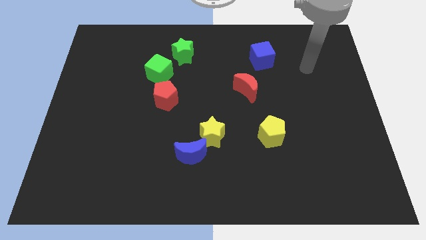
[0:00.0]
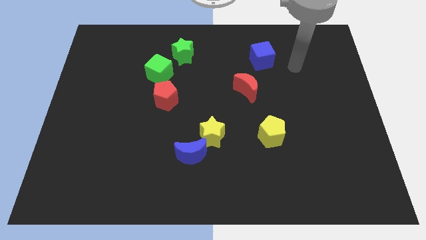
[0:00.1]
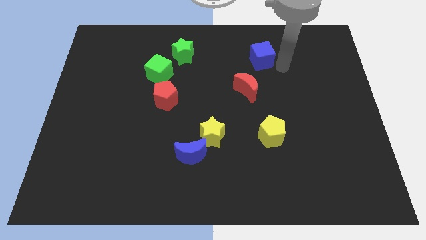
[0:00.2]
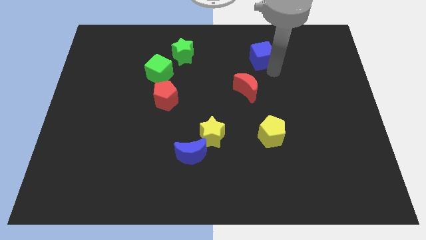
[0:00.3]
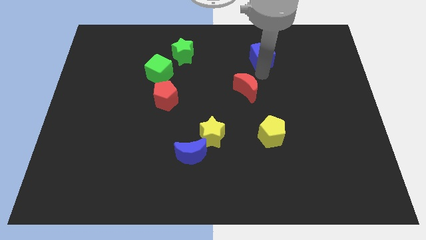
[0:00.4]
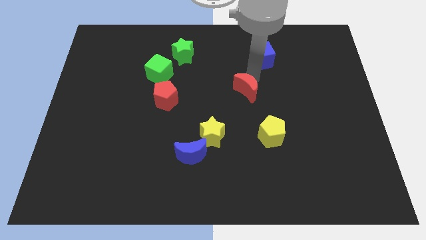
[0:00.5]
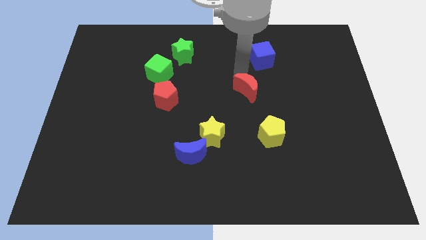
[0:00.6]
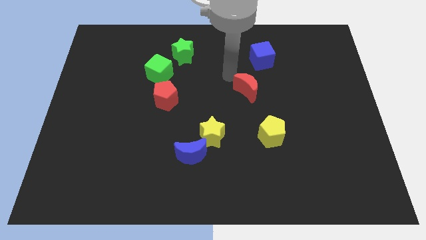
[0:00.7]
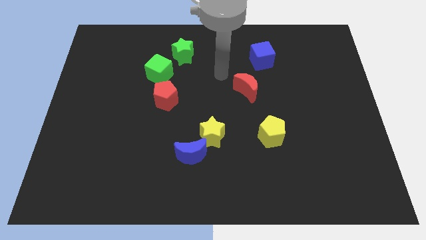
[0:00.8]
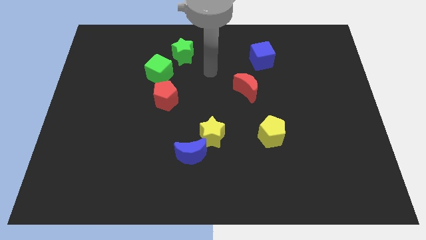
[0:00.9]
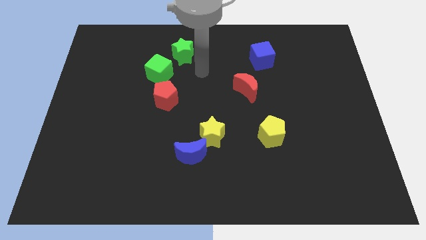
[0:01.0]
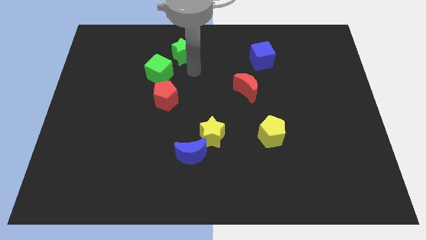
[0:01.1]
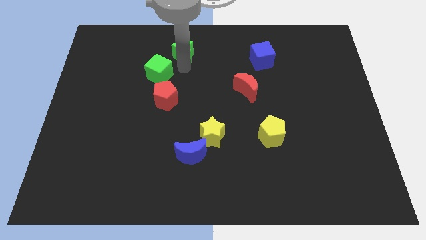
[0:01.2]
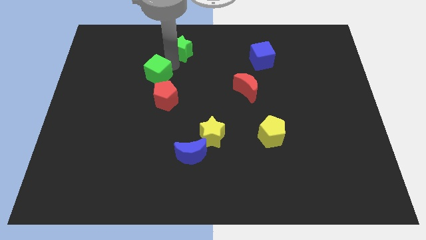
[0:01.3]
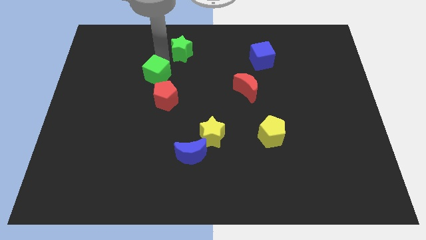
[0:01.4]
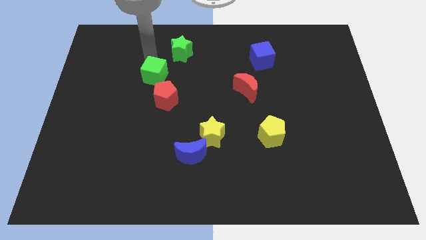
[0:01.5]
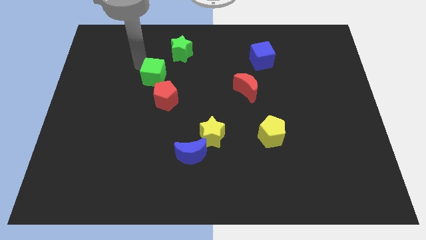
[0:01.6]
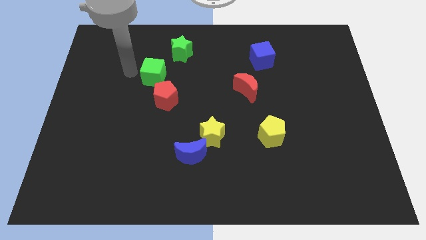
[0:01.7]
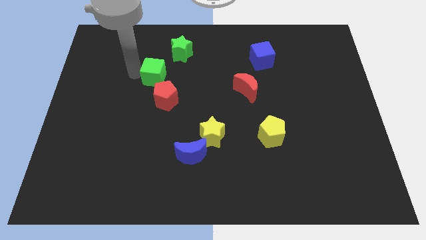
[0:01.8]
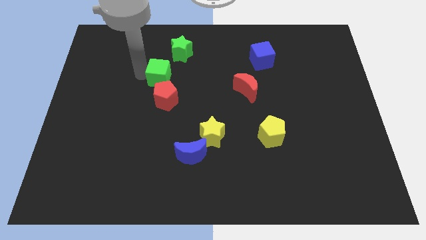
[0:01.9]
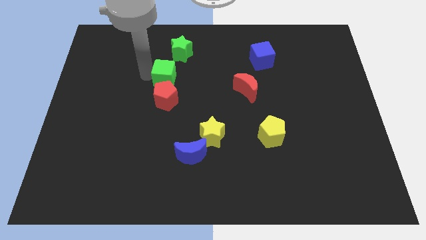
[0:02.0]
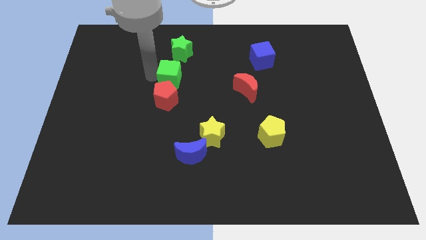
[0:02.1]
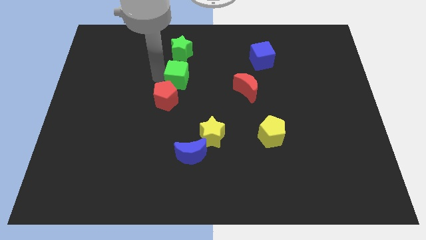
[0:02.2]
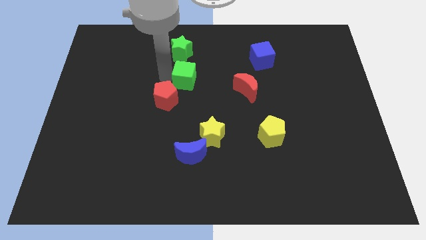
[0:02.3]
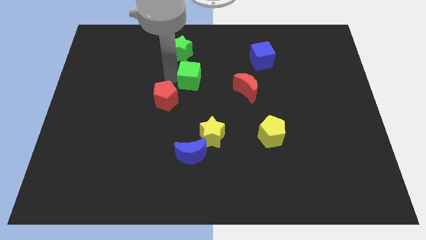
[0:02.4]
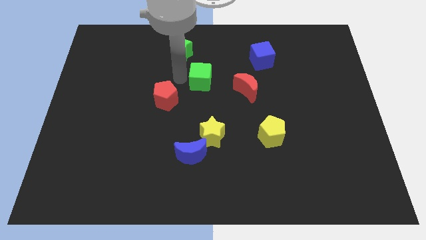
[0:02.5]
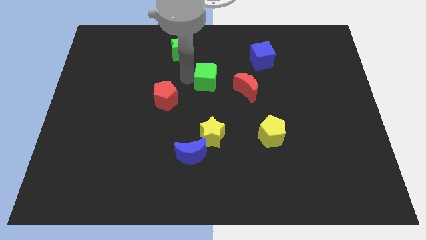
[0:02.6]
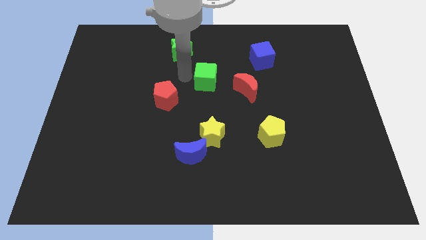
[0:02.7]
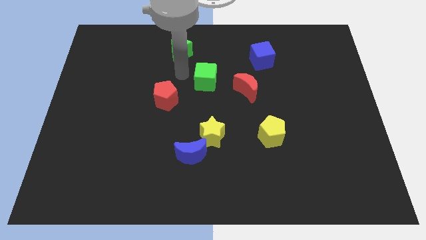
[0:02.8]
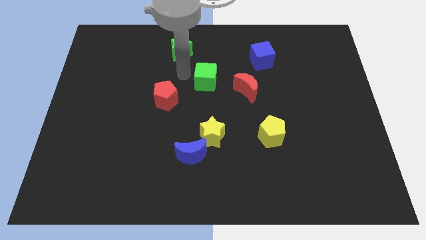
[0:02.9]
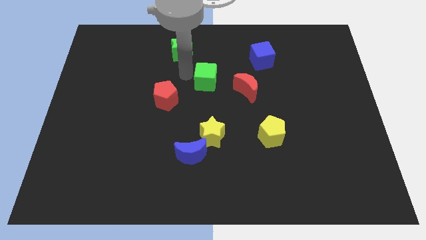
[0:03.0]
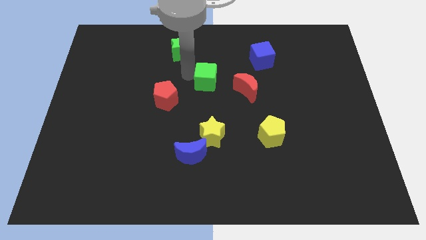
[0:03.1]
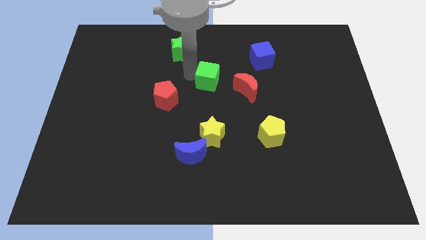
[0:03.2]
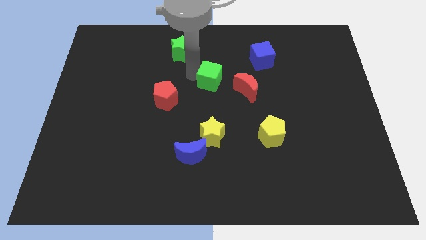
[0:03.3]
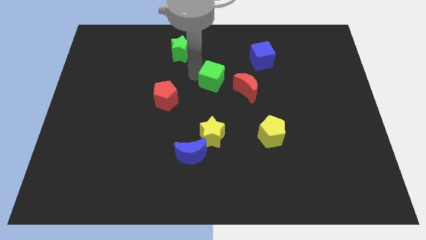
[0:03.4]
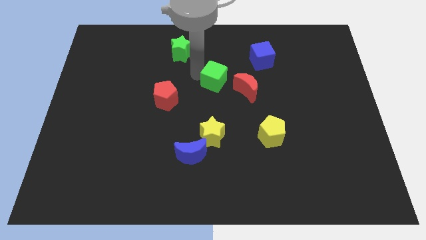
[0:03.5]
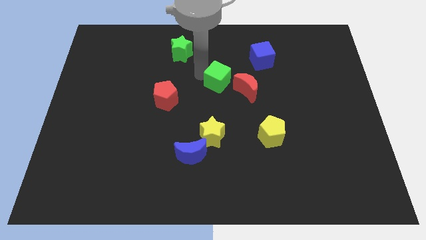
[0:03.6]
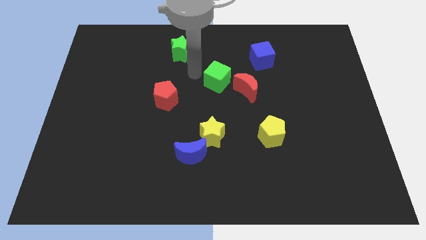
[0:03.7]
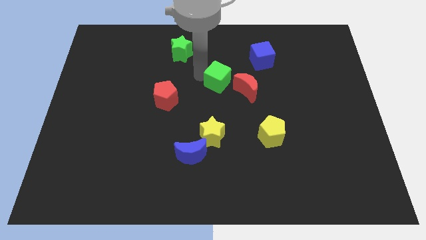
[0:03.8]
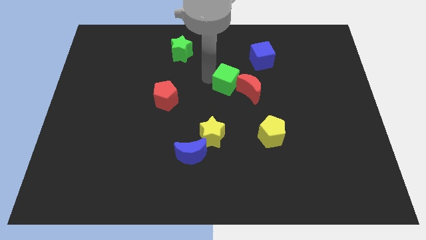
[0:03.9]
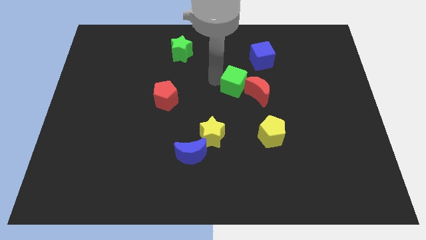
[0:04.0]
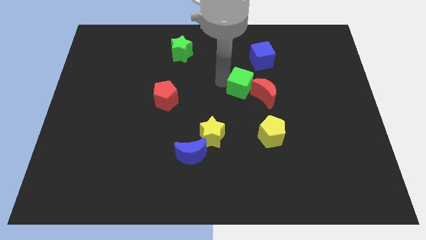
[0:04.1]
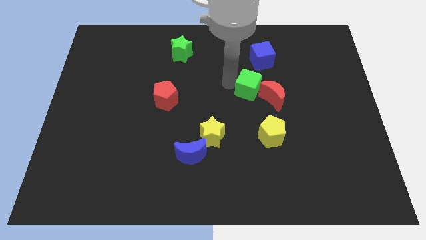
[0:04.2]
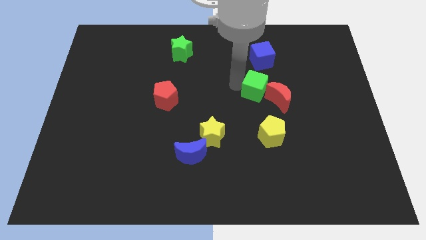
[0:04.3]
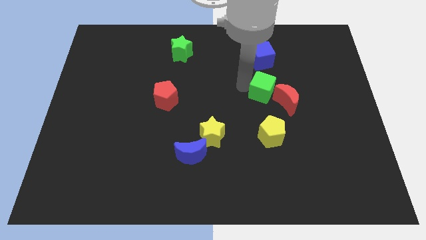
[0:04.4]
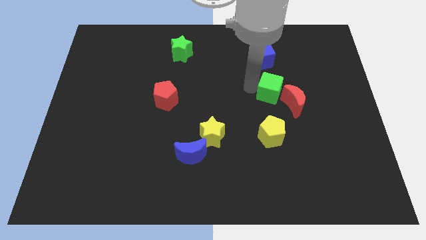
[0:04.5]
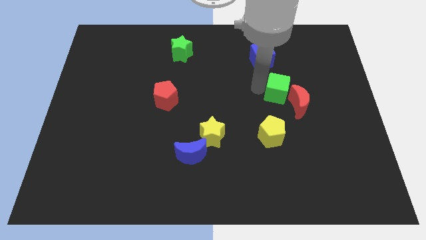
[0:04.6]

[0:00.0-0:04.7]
slide the green cube to the red moon

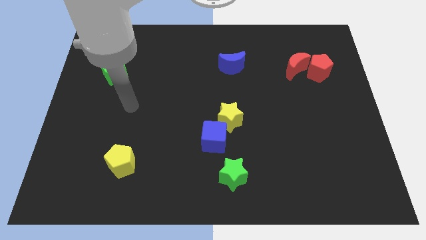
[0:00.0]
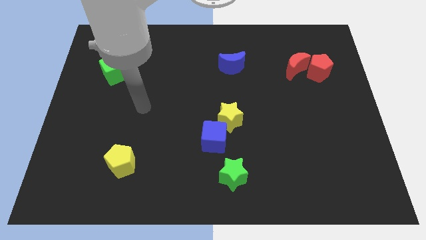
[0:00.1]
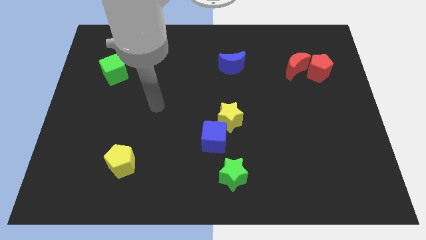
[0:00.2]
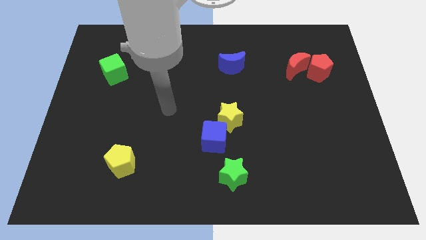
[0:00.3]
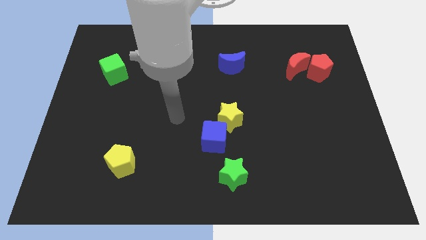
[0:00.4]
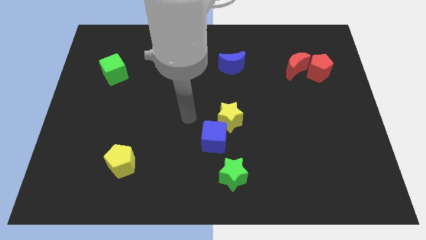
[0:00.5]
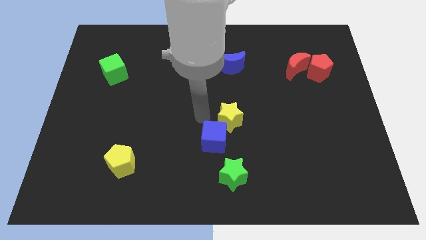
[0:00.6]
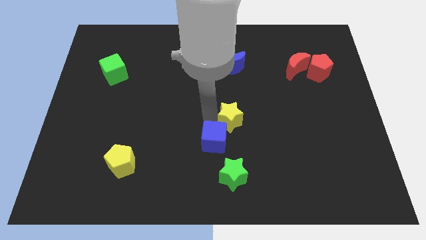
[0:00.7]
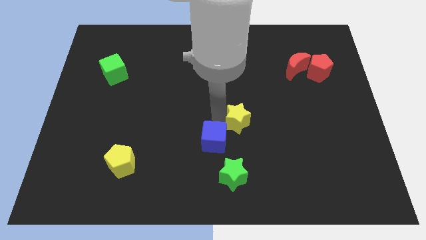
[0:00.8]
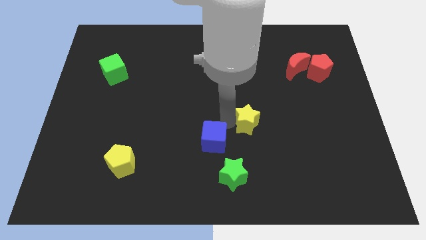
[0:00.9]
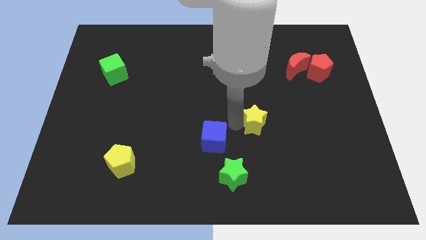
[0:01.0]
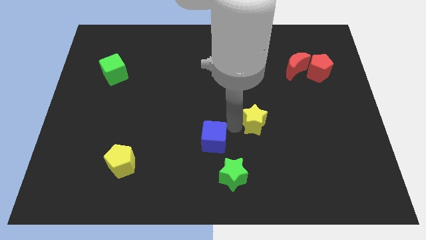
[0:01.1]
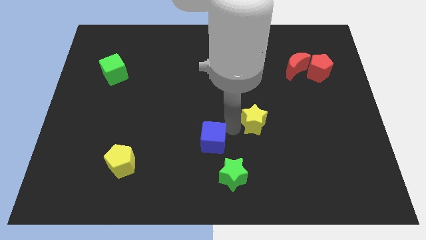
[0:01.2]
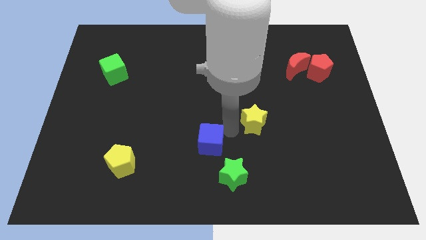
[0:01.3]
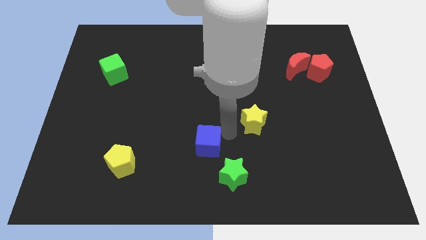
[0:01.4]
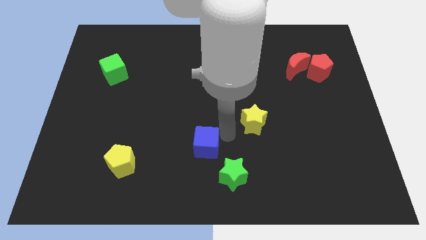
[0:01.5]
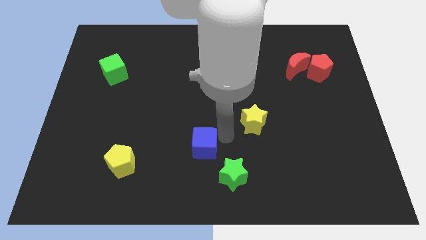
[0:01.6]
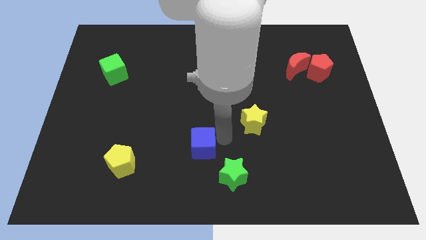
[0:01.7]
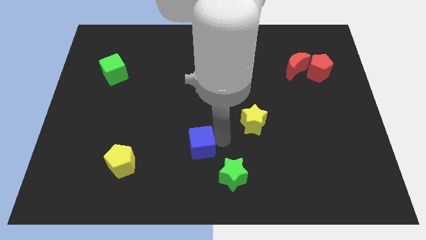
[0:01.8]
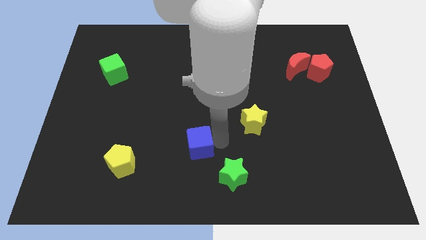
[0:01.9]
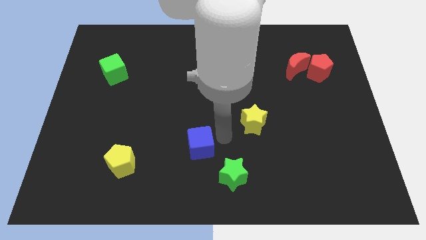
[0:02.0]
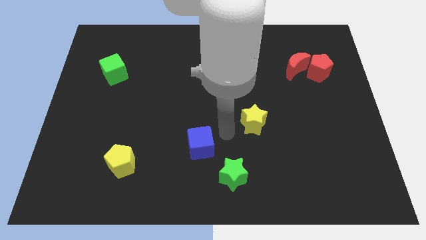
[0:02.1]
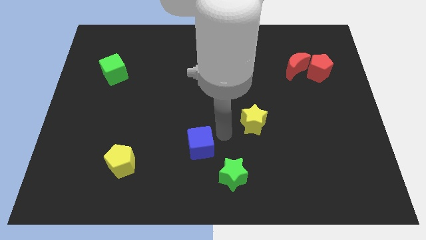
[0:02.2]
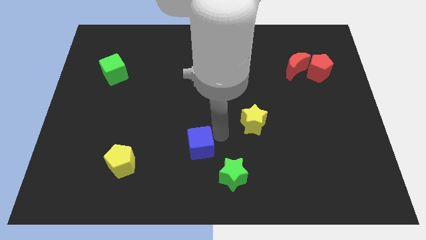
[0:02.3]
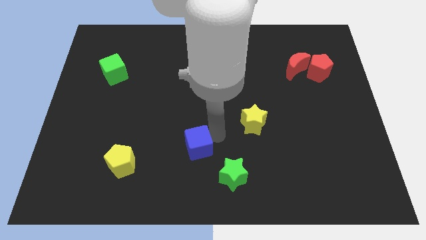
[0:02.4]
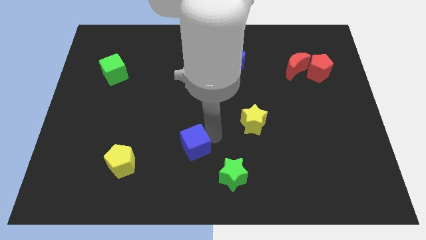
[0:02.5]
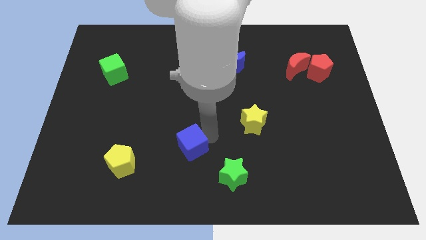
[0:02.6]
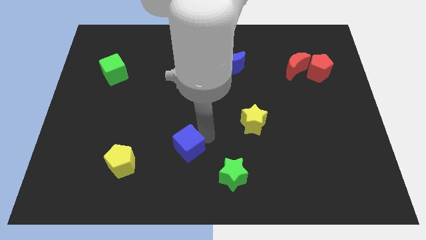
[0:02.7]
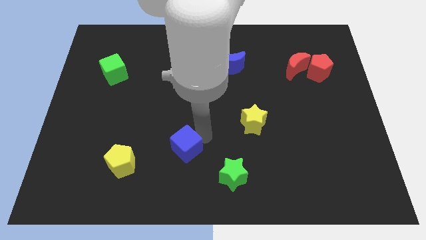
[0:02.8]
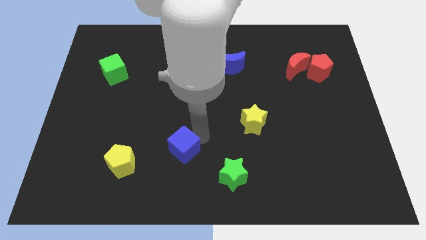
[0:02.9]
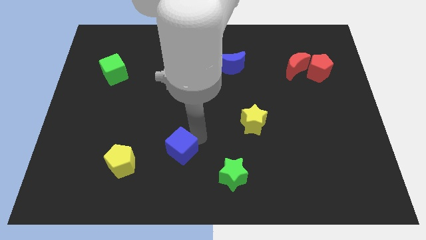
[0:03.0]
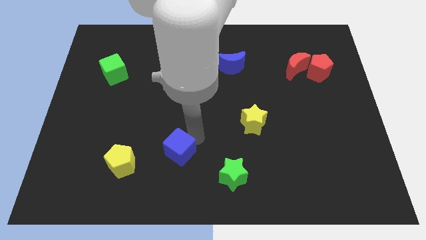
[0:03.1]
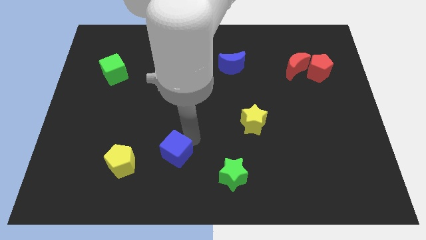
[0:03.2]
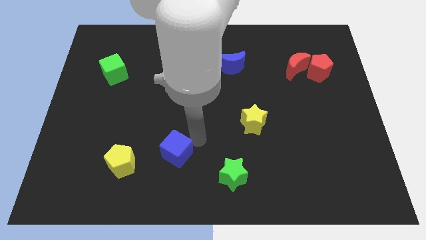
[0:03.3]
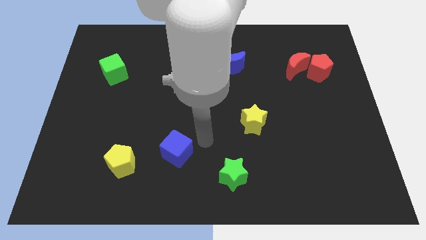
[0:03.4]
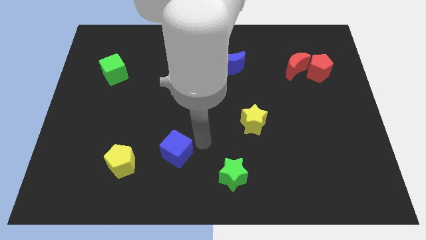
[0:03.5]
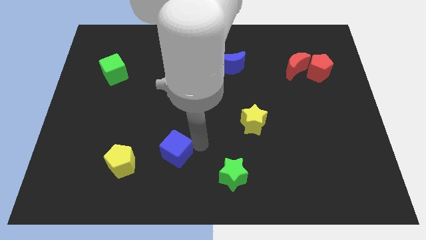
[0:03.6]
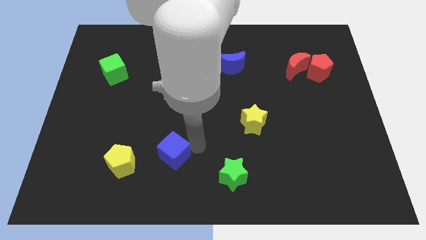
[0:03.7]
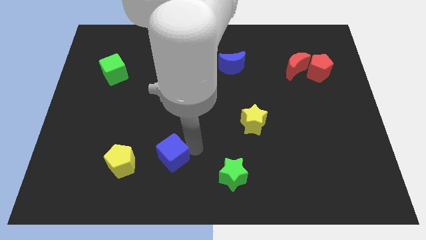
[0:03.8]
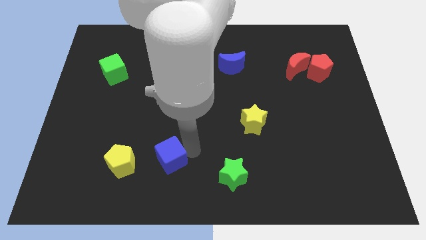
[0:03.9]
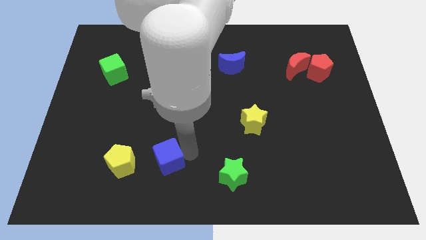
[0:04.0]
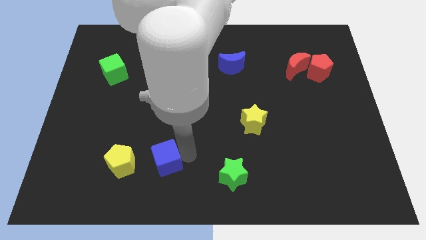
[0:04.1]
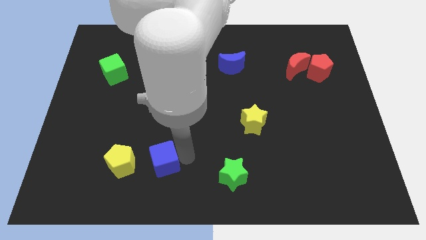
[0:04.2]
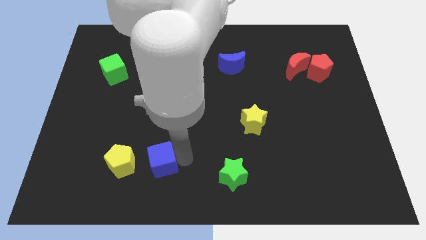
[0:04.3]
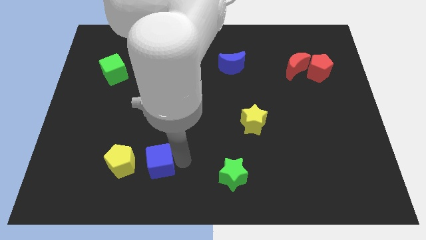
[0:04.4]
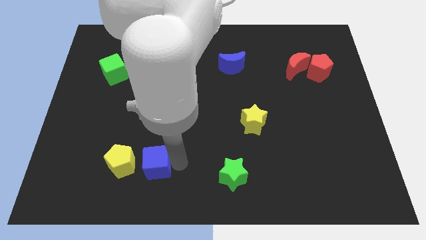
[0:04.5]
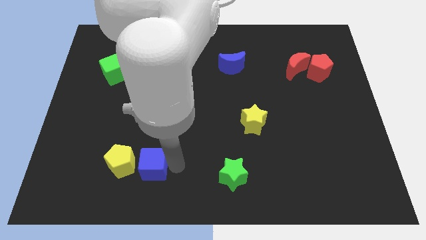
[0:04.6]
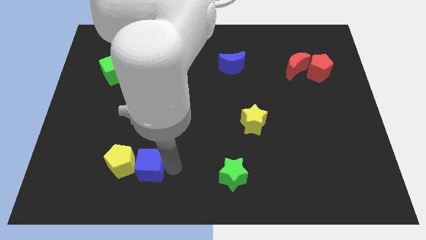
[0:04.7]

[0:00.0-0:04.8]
push the blue cube next to the yellow pentagon
